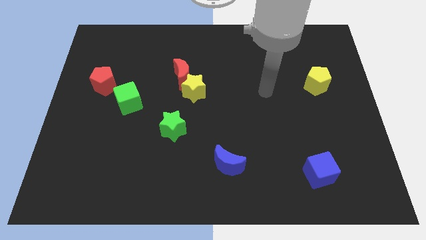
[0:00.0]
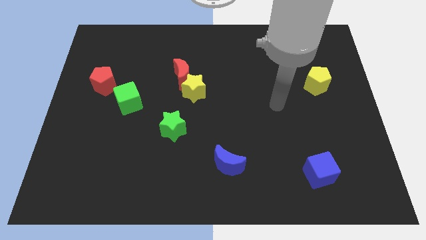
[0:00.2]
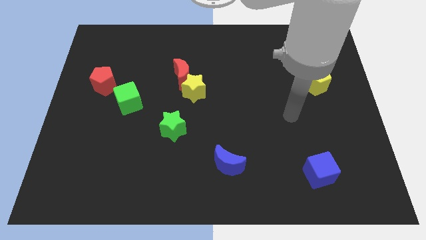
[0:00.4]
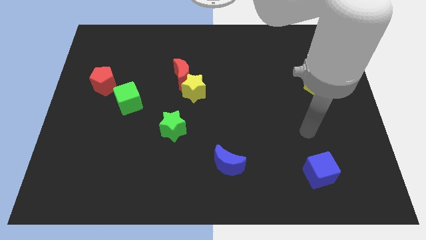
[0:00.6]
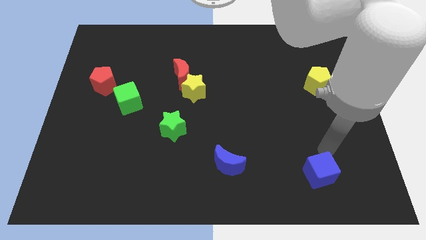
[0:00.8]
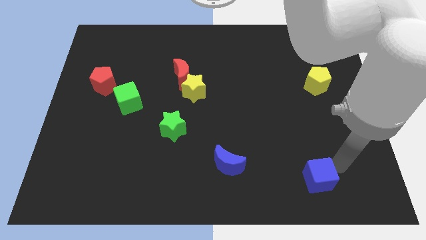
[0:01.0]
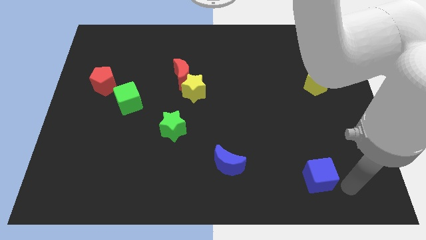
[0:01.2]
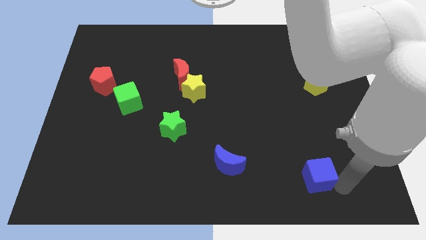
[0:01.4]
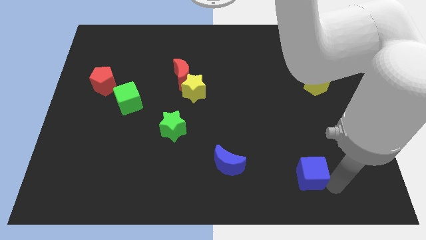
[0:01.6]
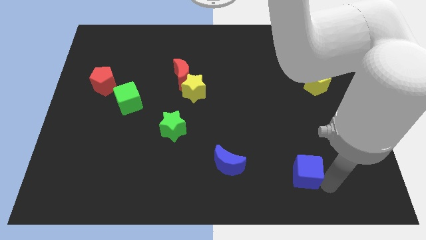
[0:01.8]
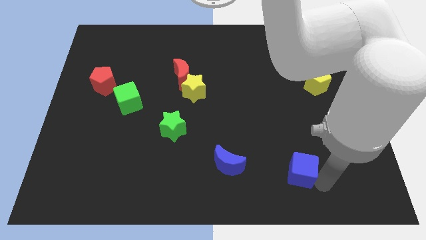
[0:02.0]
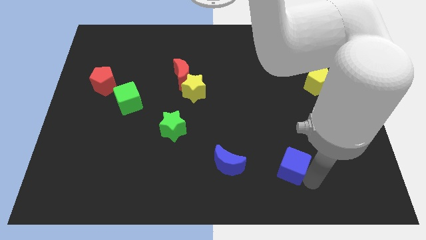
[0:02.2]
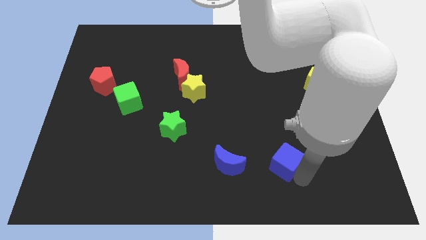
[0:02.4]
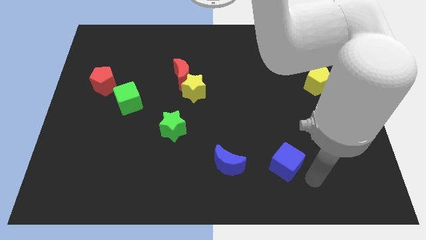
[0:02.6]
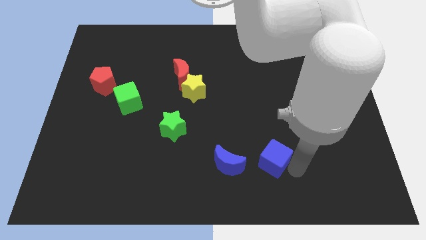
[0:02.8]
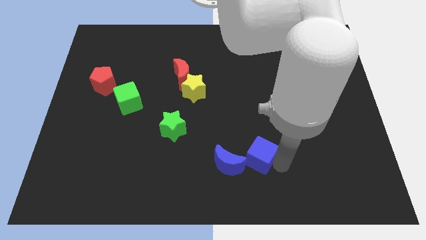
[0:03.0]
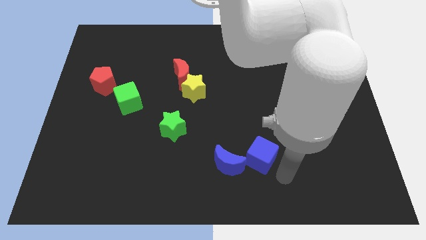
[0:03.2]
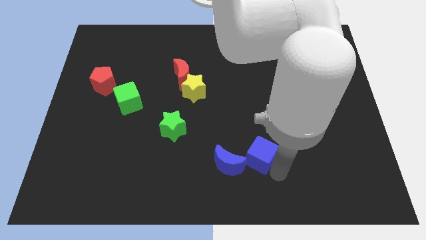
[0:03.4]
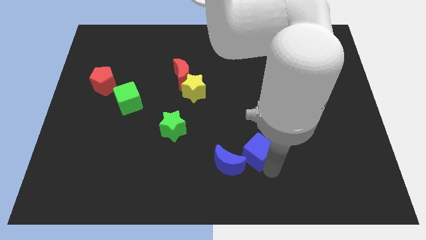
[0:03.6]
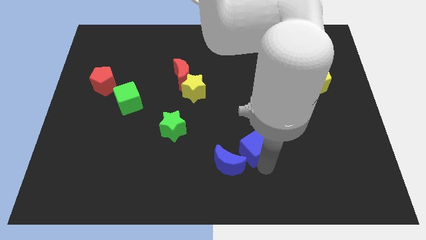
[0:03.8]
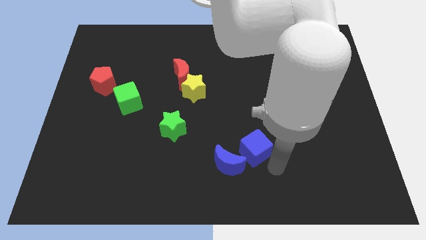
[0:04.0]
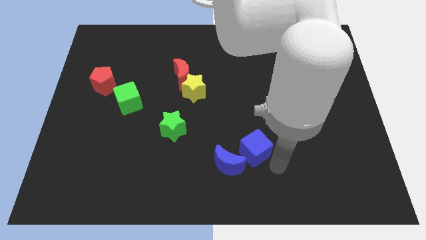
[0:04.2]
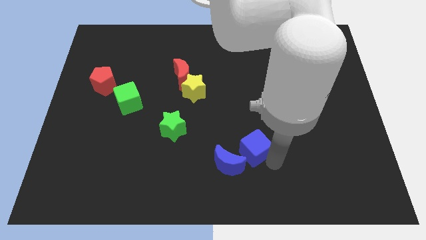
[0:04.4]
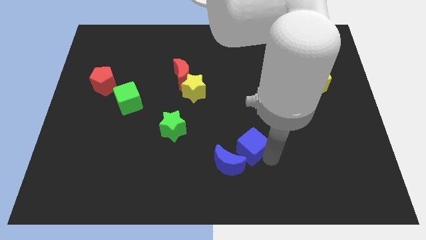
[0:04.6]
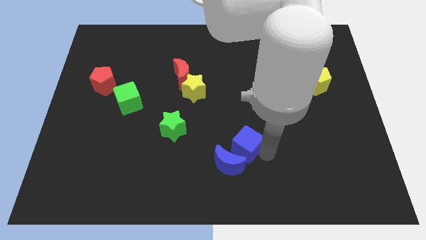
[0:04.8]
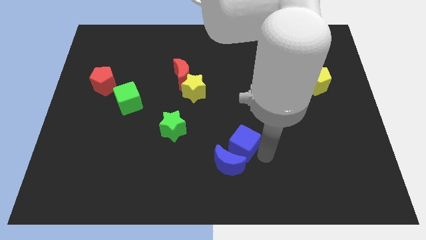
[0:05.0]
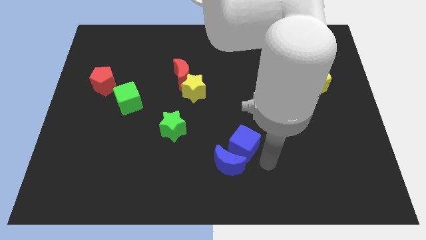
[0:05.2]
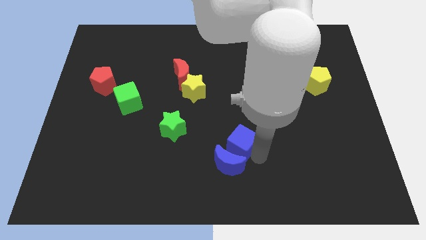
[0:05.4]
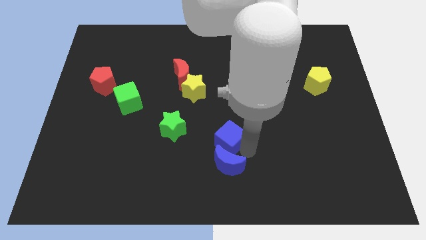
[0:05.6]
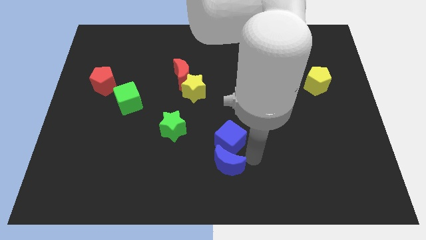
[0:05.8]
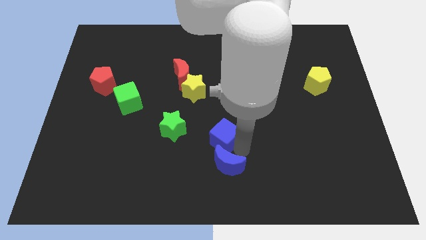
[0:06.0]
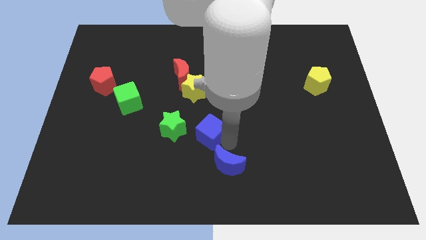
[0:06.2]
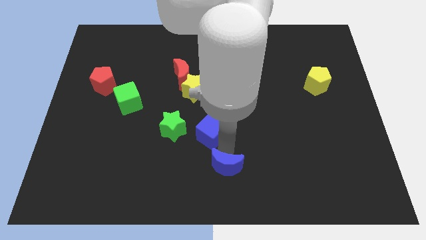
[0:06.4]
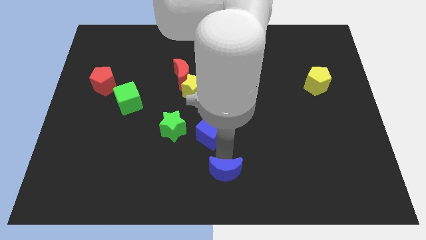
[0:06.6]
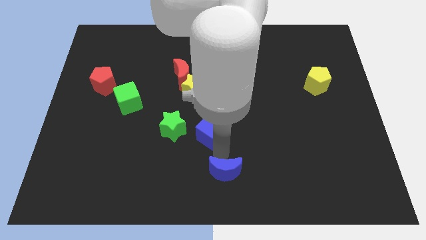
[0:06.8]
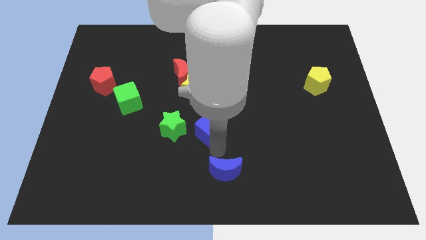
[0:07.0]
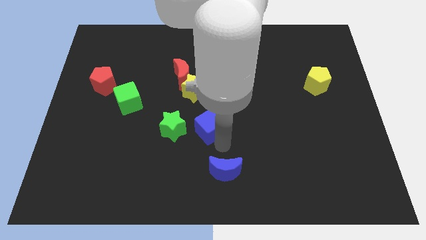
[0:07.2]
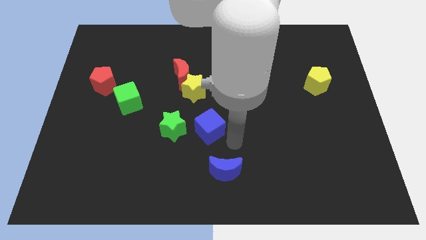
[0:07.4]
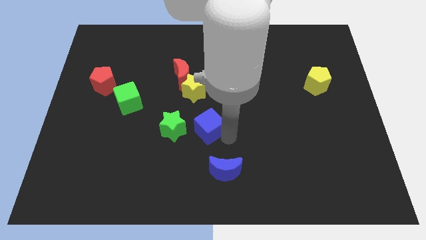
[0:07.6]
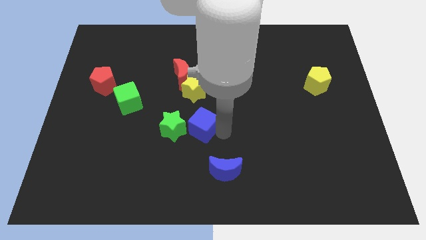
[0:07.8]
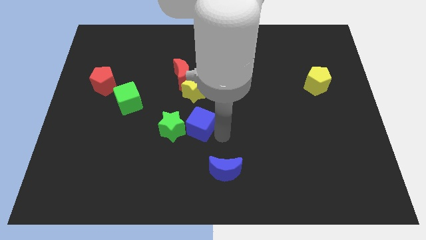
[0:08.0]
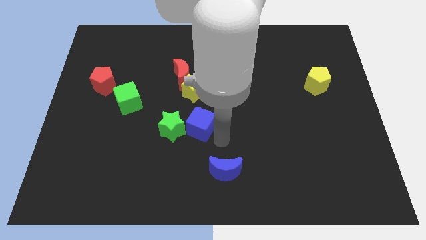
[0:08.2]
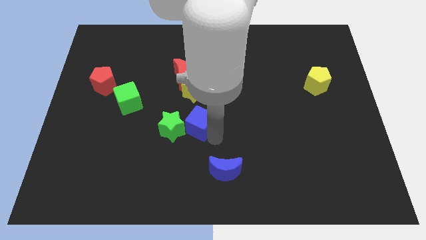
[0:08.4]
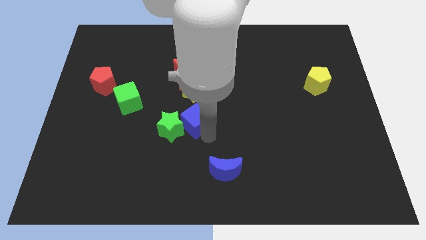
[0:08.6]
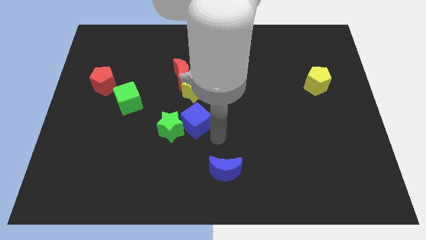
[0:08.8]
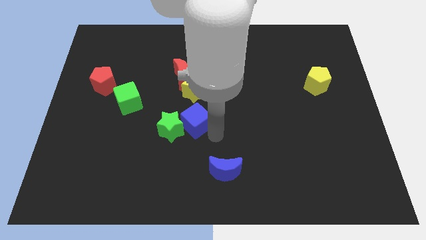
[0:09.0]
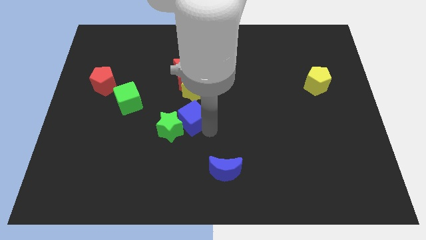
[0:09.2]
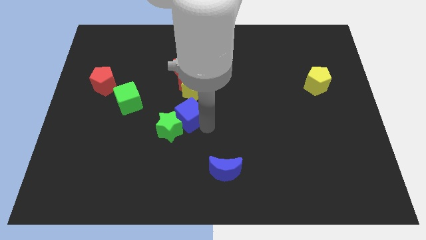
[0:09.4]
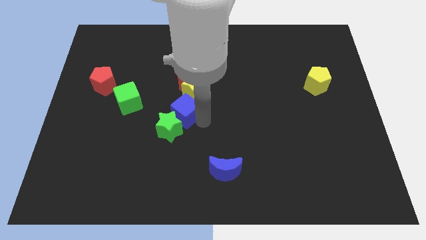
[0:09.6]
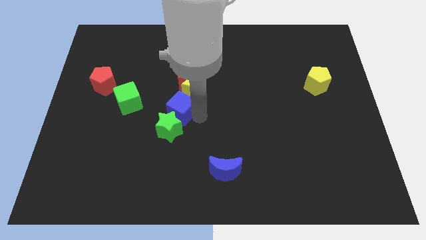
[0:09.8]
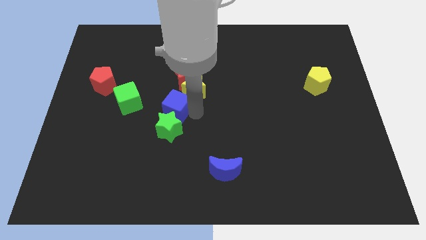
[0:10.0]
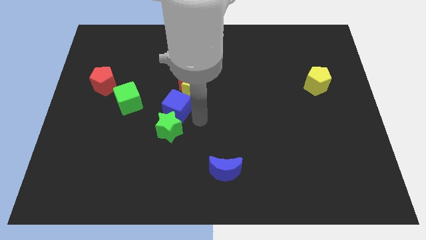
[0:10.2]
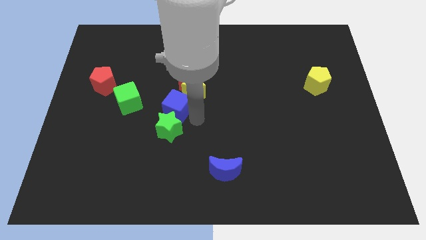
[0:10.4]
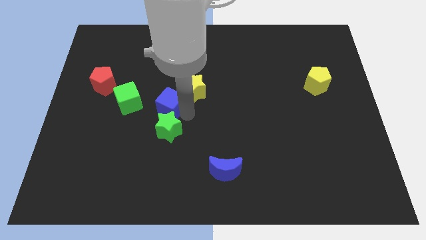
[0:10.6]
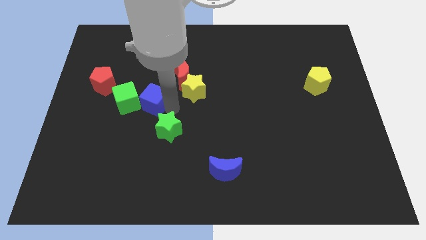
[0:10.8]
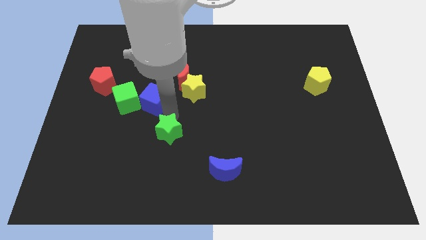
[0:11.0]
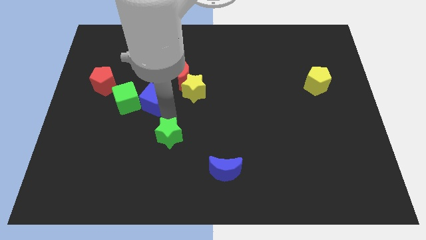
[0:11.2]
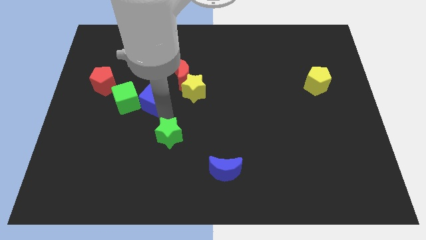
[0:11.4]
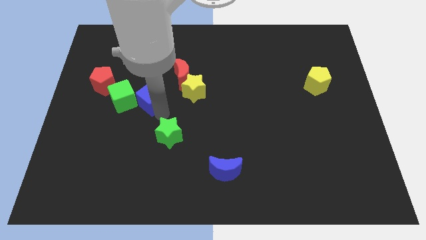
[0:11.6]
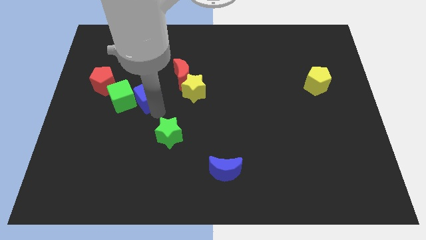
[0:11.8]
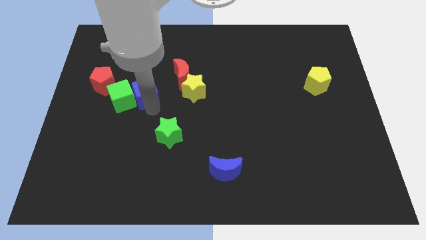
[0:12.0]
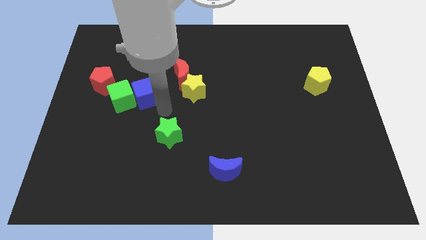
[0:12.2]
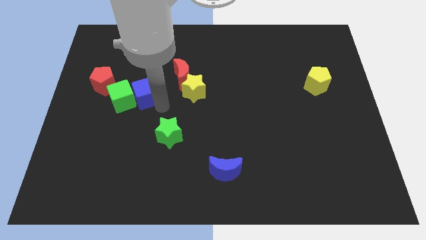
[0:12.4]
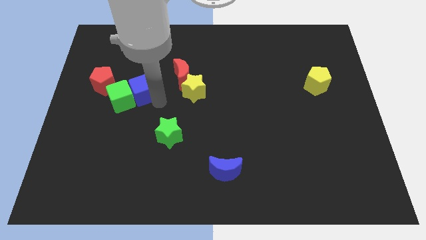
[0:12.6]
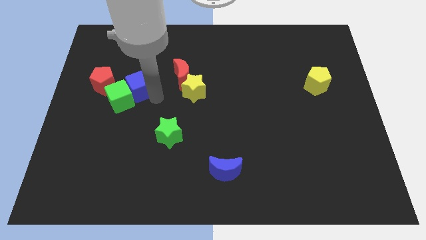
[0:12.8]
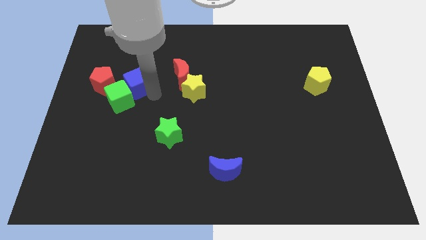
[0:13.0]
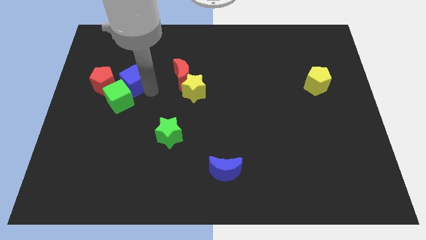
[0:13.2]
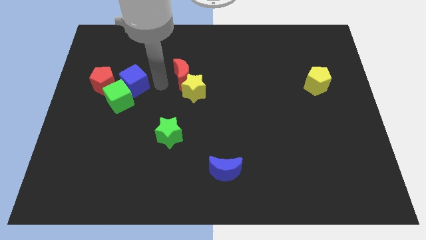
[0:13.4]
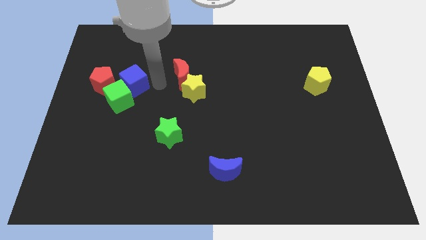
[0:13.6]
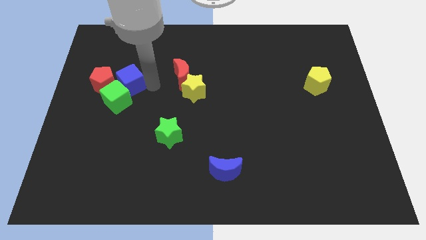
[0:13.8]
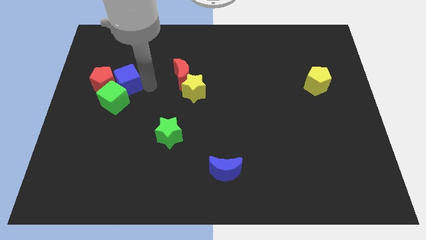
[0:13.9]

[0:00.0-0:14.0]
put the blue cube to the red pentagon
